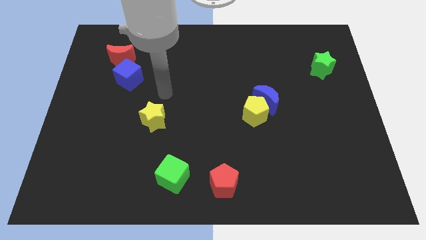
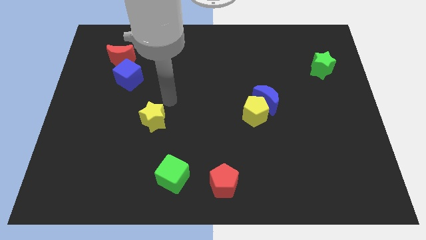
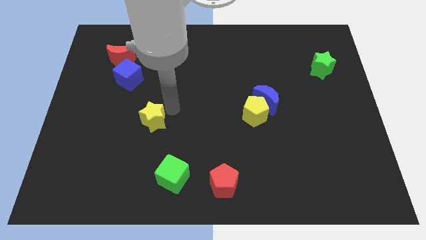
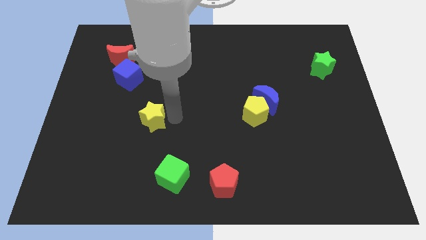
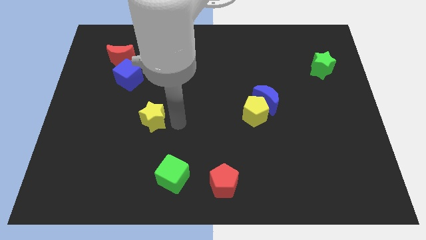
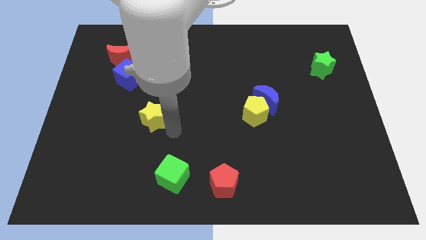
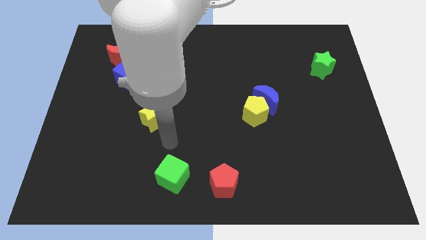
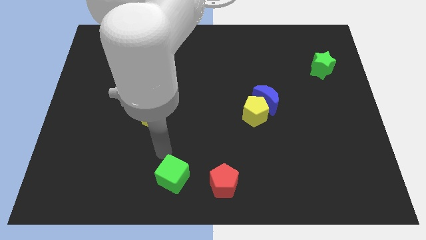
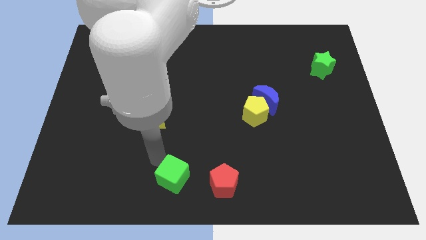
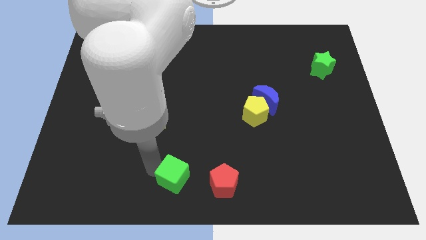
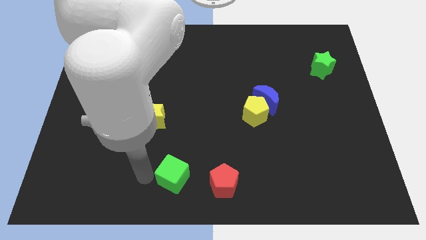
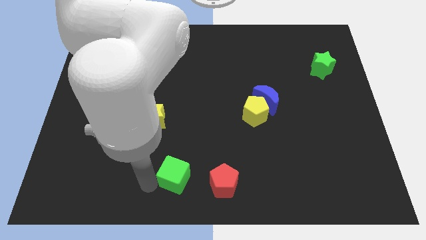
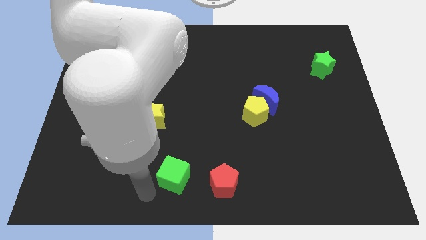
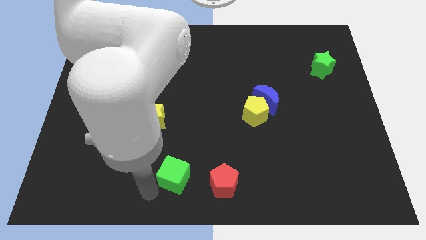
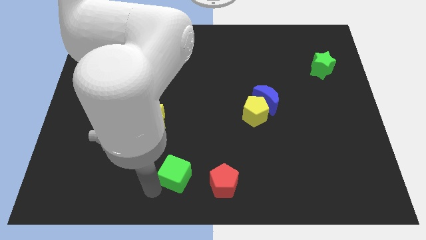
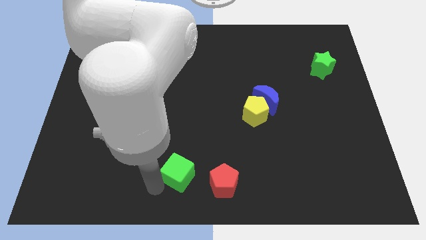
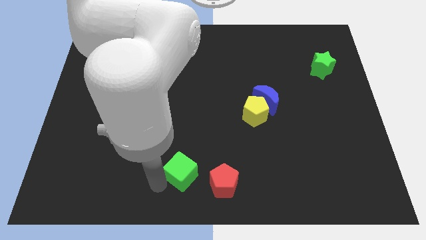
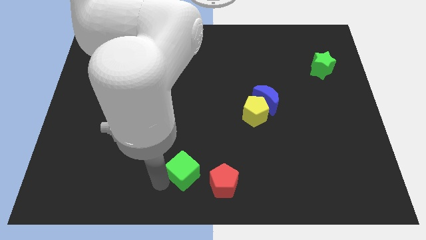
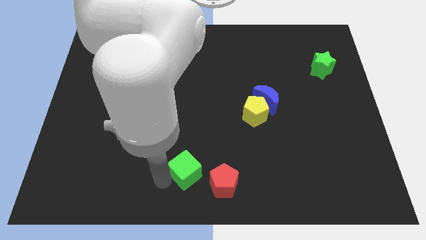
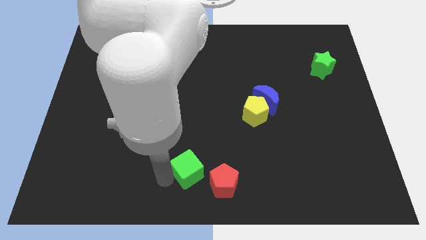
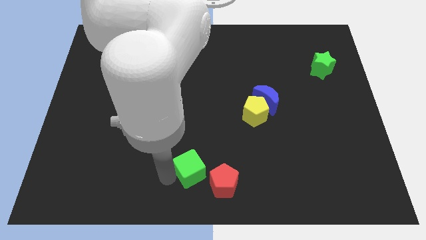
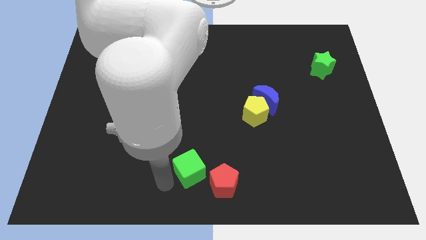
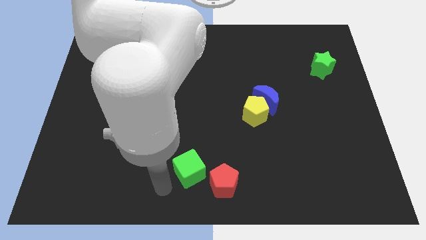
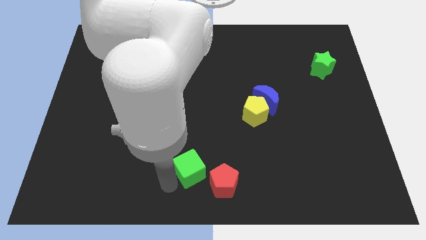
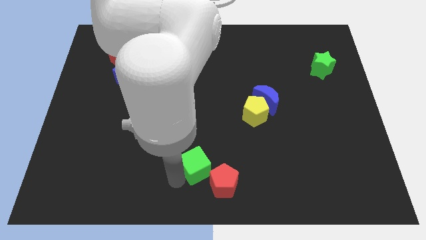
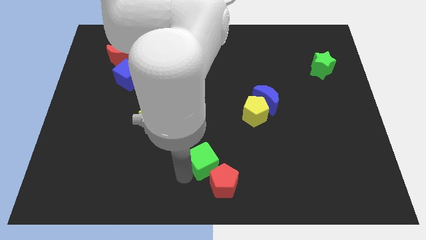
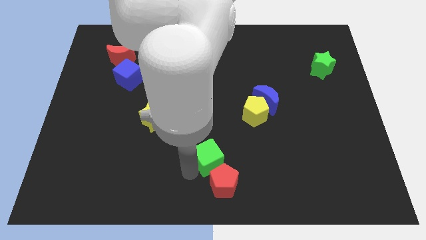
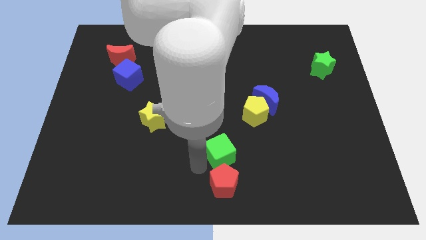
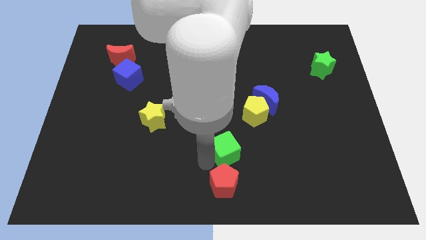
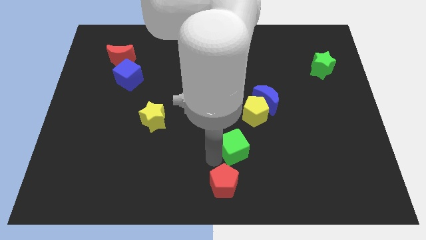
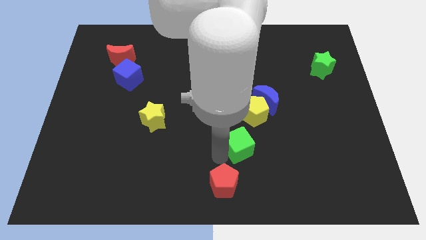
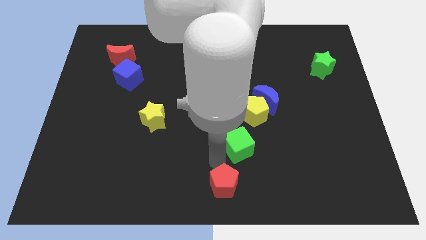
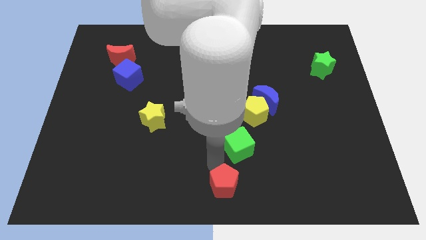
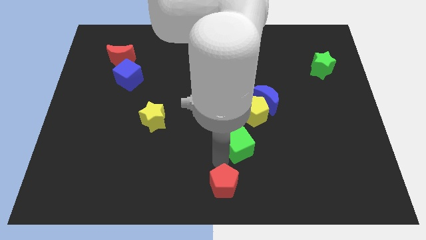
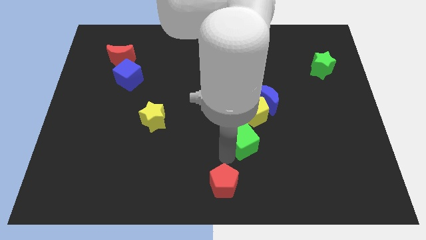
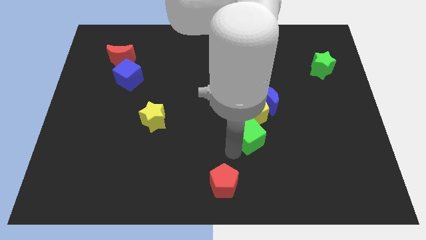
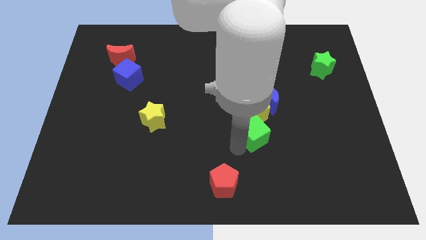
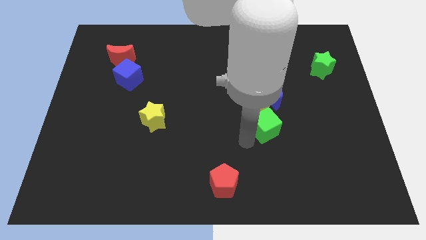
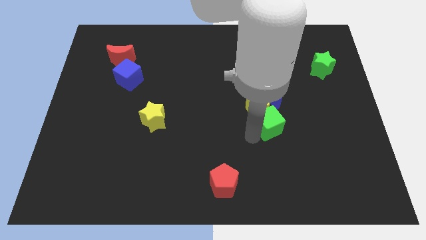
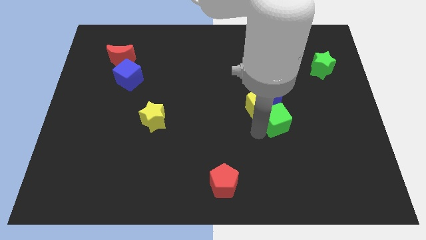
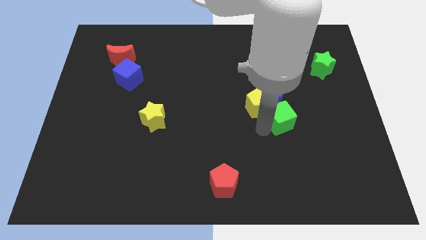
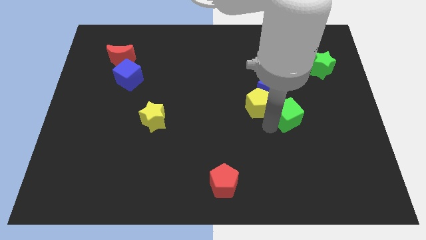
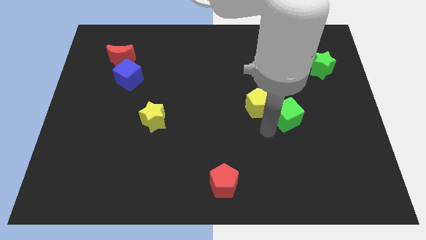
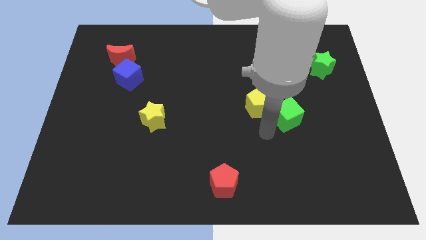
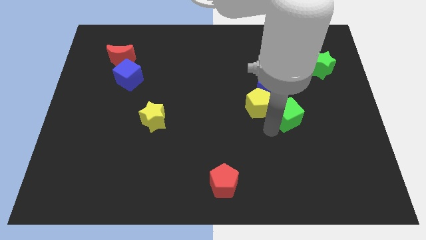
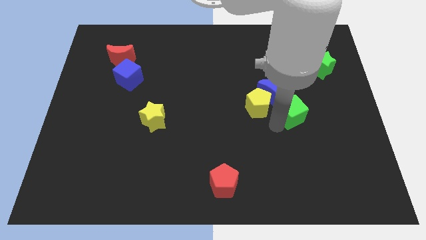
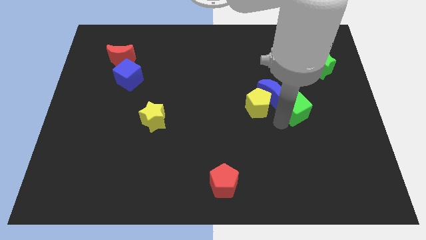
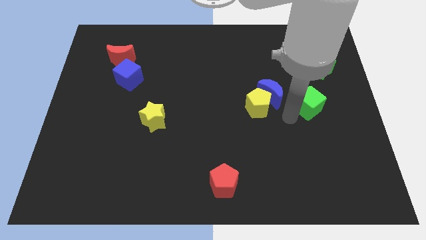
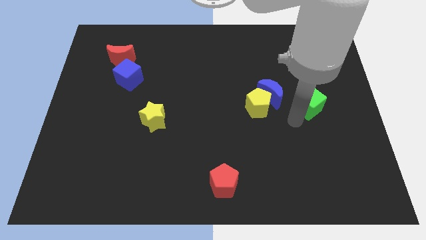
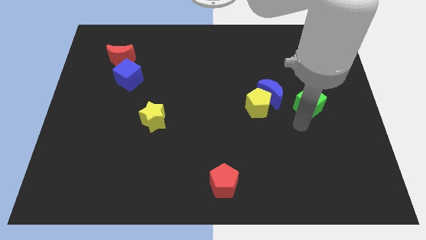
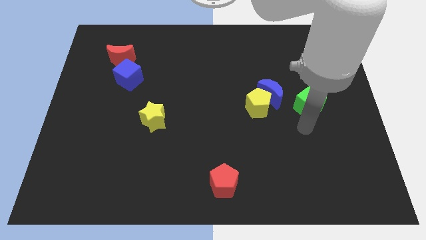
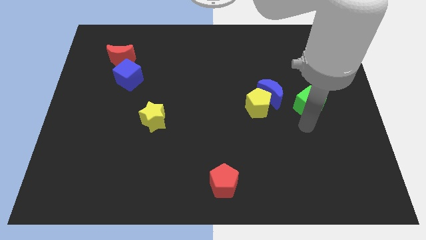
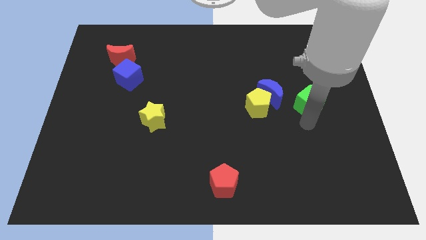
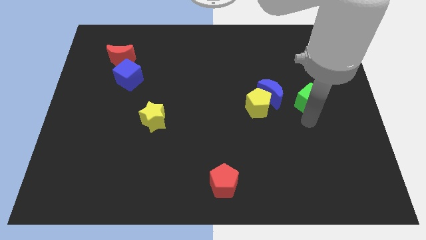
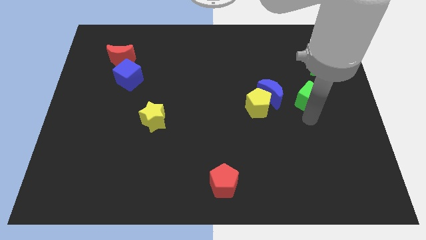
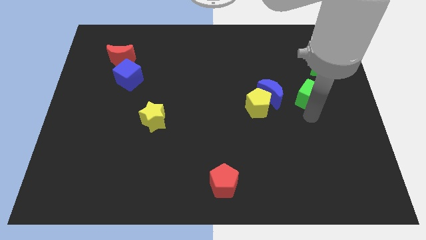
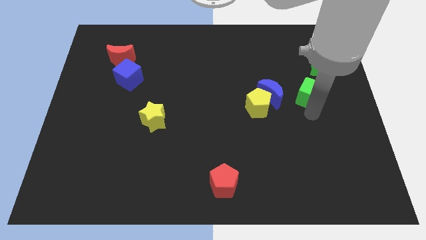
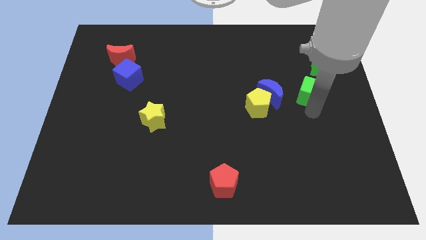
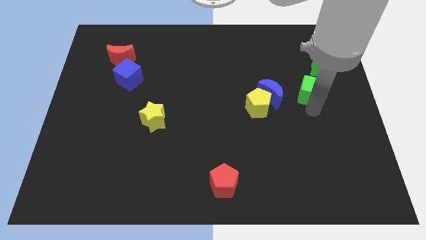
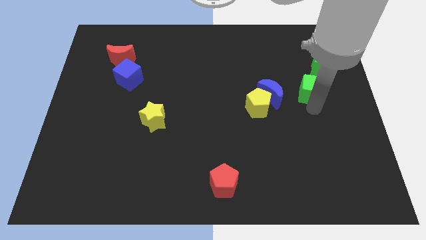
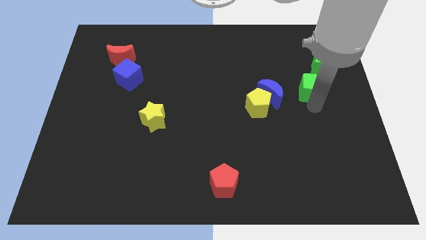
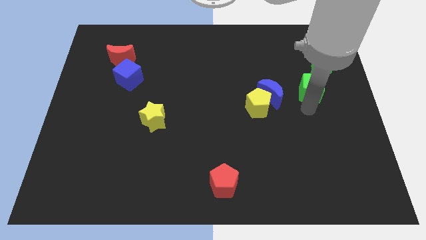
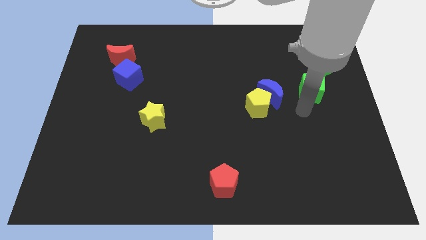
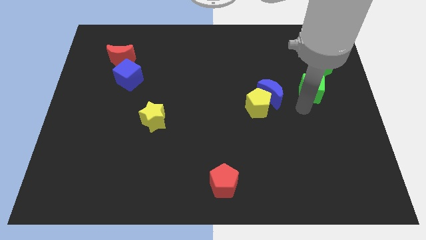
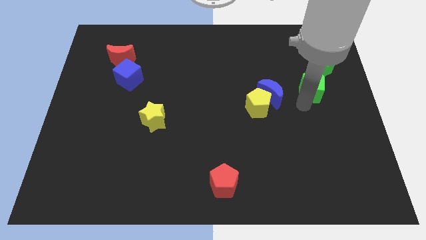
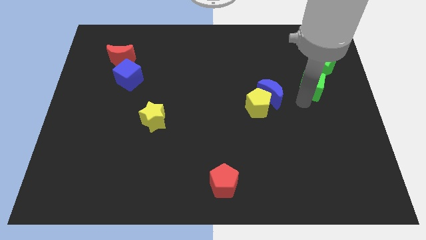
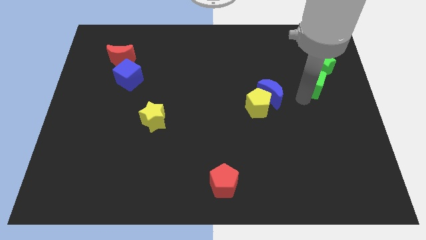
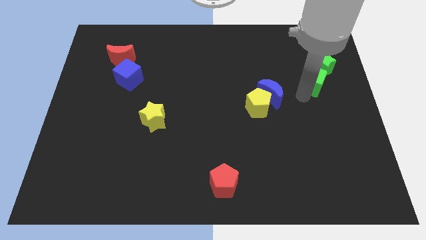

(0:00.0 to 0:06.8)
move the green cube next to the green star
